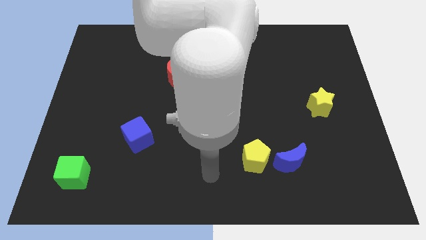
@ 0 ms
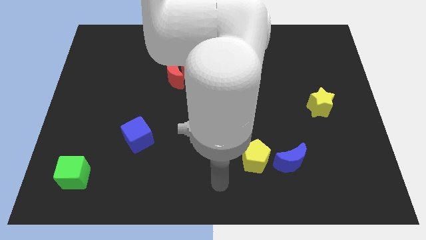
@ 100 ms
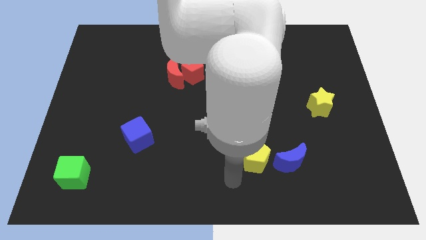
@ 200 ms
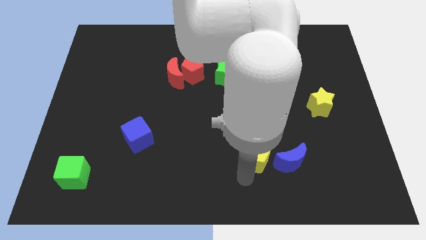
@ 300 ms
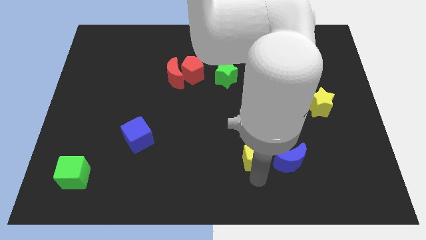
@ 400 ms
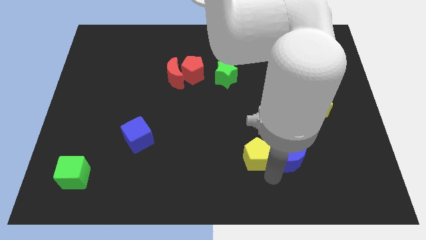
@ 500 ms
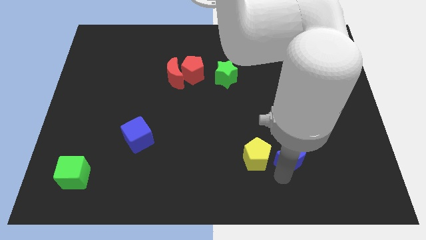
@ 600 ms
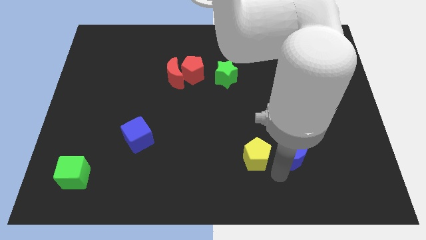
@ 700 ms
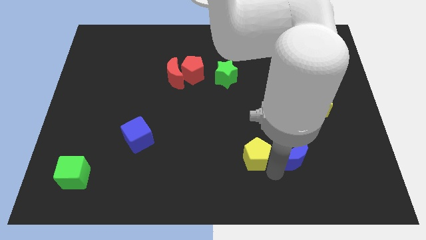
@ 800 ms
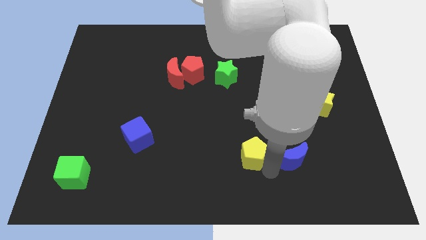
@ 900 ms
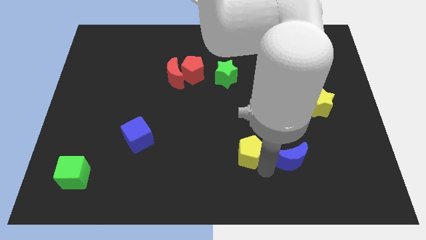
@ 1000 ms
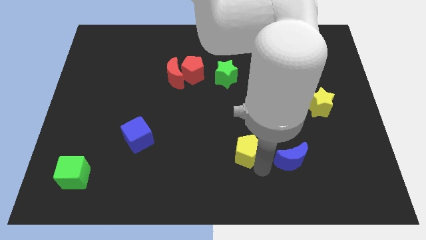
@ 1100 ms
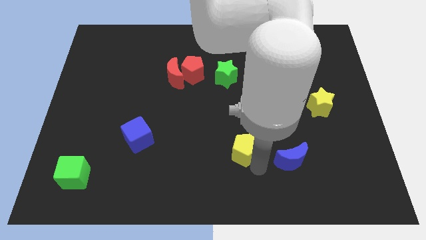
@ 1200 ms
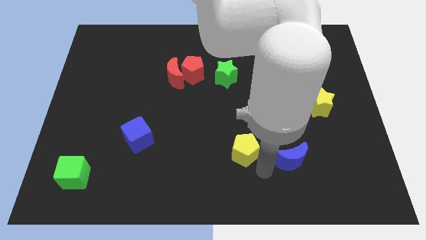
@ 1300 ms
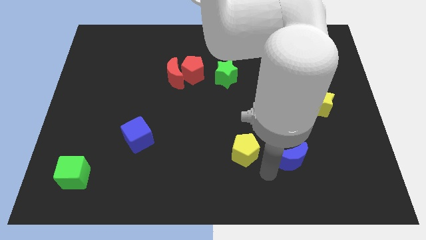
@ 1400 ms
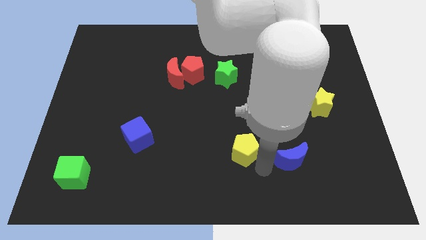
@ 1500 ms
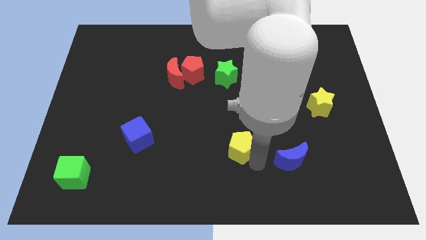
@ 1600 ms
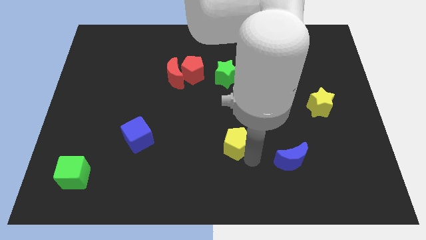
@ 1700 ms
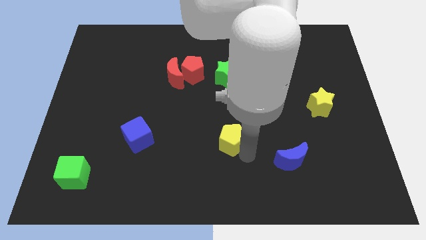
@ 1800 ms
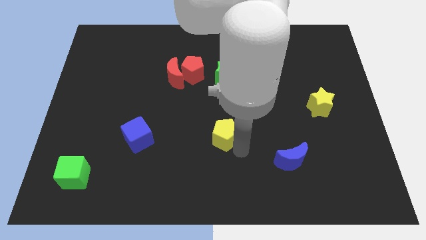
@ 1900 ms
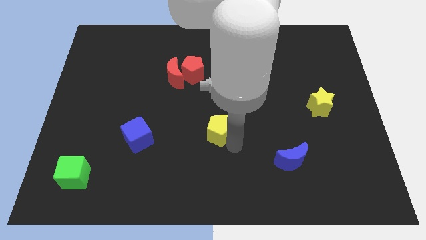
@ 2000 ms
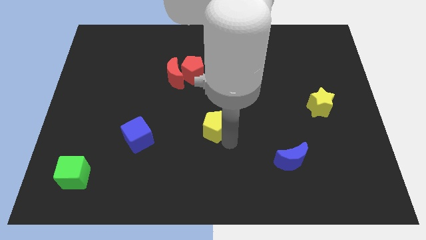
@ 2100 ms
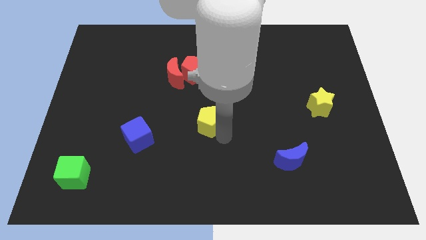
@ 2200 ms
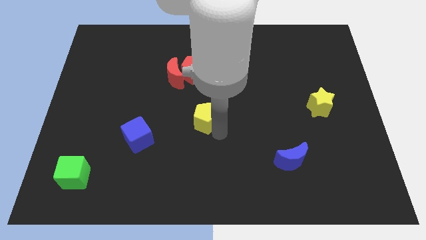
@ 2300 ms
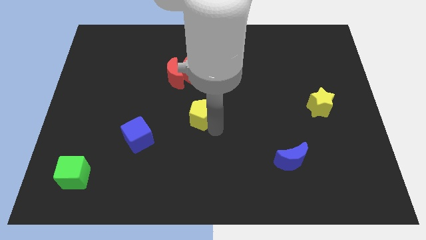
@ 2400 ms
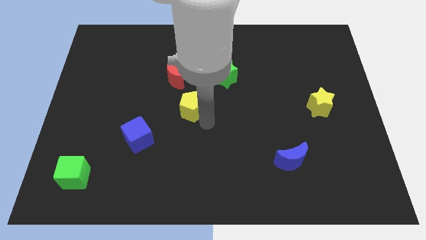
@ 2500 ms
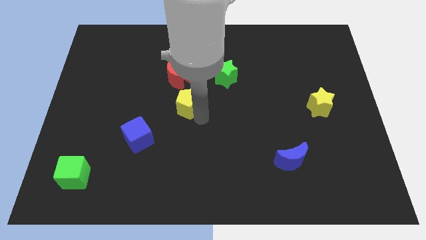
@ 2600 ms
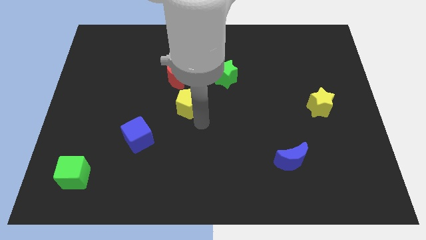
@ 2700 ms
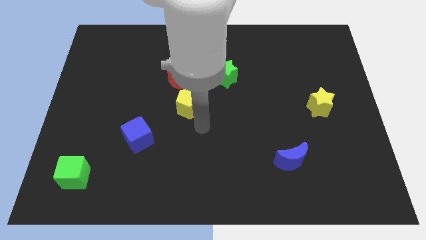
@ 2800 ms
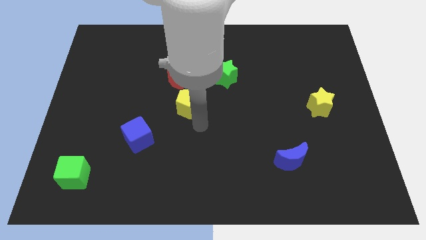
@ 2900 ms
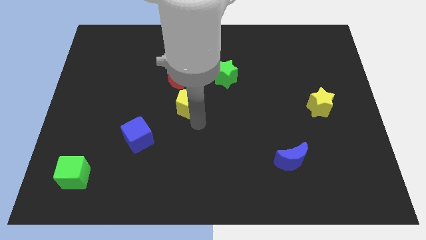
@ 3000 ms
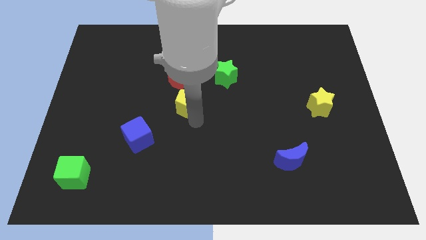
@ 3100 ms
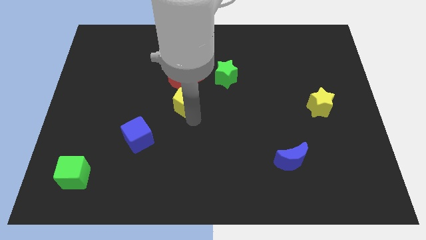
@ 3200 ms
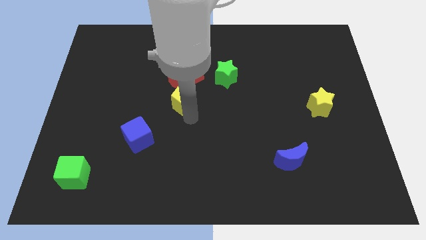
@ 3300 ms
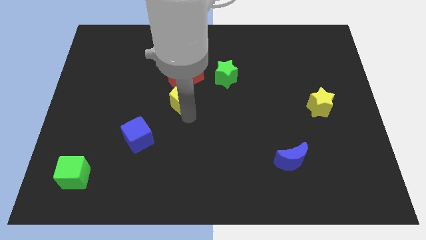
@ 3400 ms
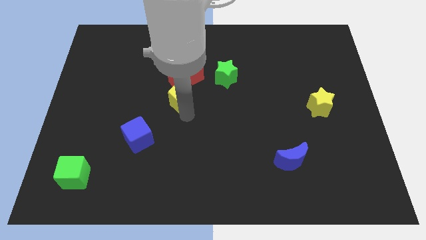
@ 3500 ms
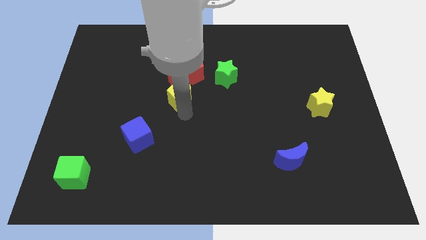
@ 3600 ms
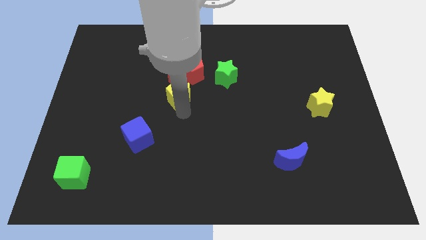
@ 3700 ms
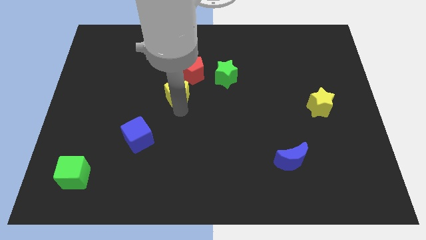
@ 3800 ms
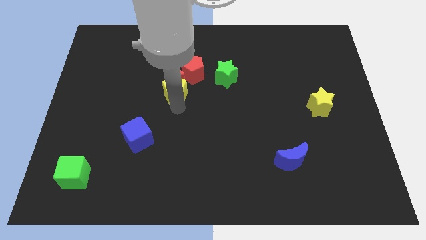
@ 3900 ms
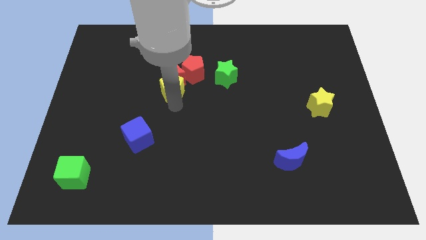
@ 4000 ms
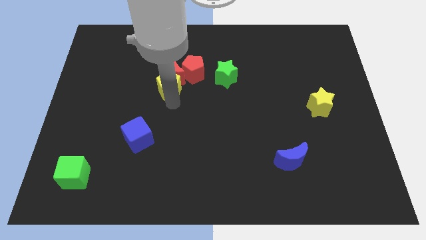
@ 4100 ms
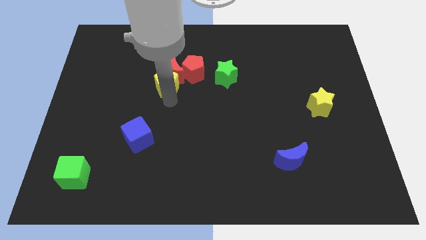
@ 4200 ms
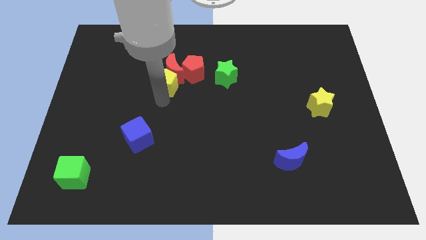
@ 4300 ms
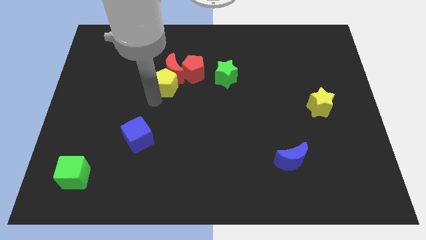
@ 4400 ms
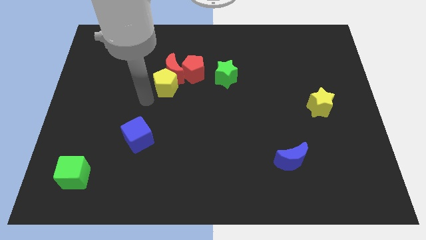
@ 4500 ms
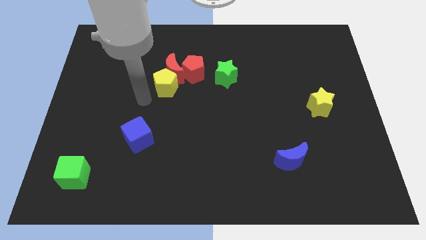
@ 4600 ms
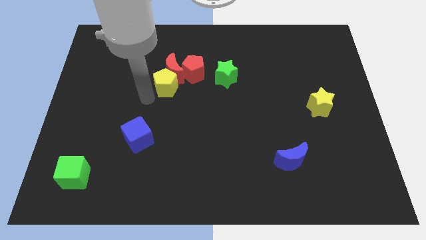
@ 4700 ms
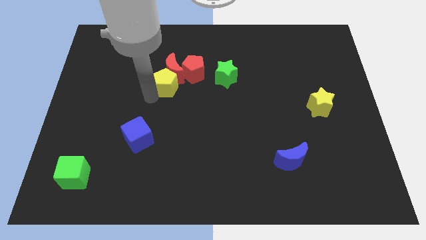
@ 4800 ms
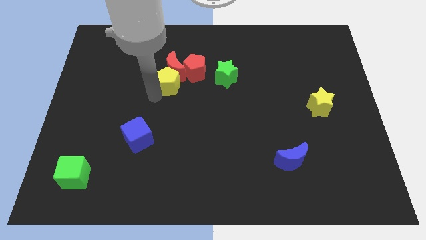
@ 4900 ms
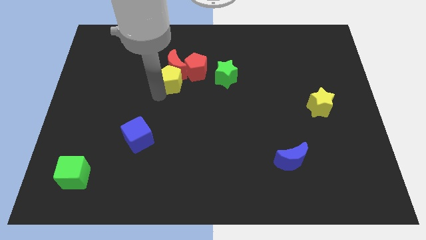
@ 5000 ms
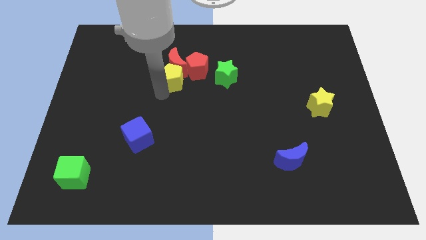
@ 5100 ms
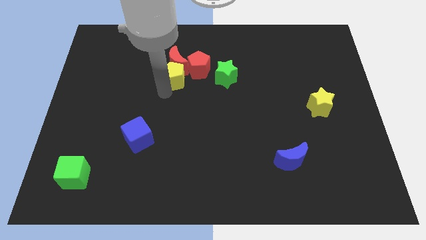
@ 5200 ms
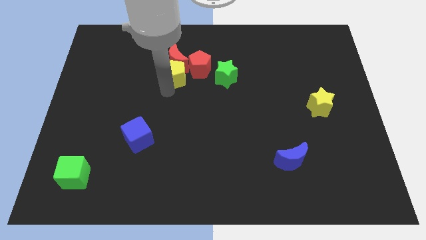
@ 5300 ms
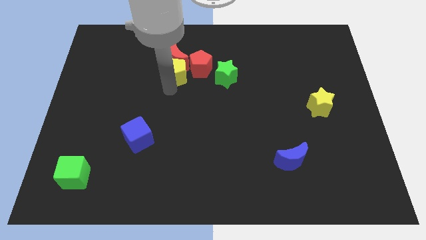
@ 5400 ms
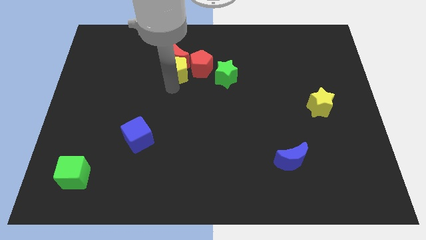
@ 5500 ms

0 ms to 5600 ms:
put the yellow pentagon towards the red pentagon

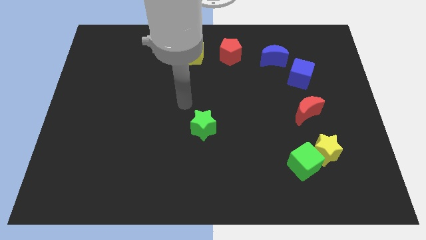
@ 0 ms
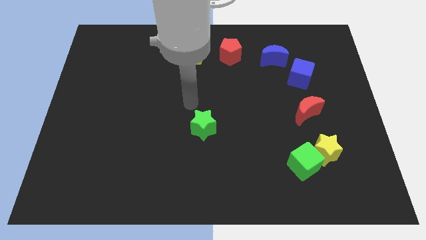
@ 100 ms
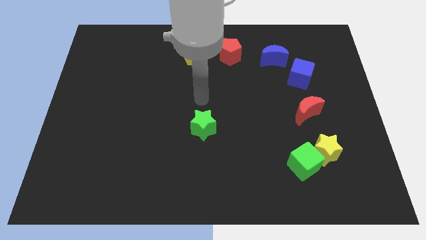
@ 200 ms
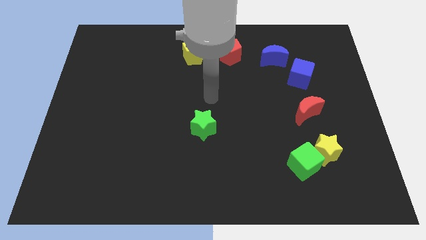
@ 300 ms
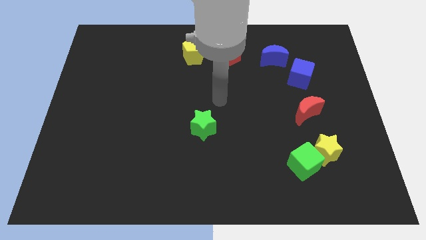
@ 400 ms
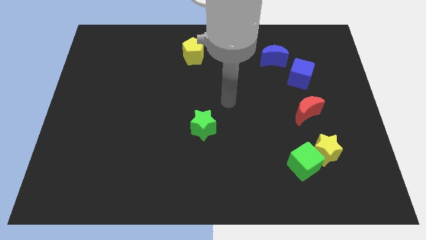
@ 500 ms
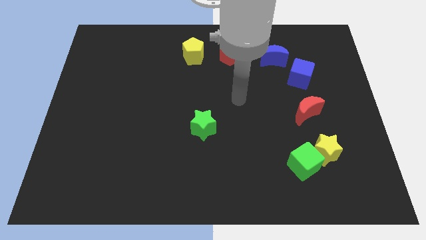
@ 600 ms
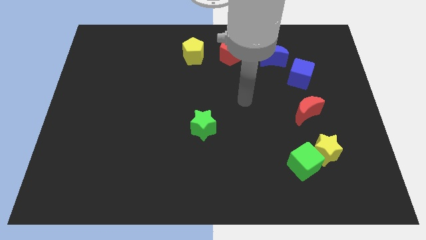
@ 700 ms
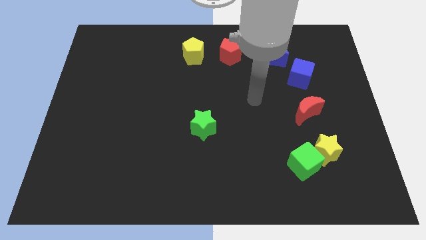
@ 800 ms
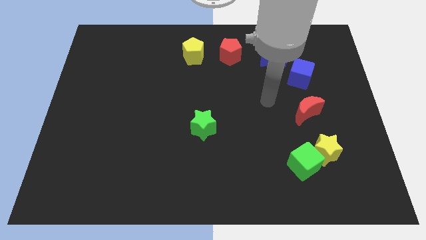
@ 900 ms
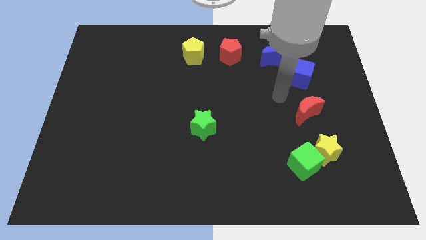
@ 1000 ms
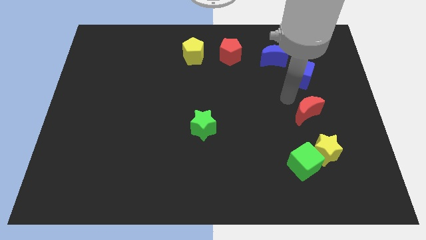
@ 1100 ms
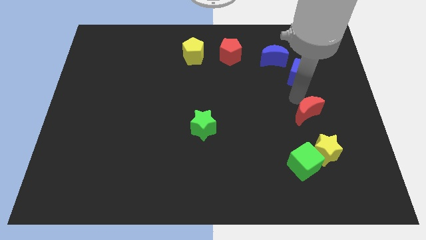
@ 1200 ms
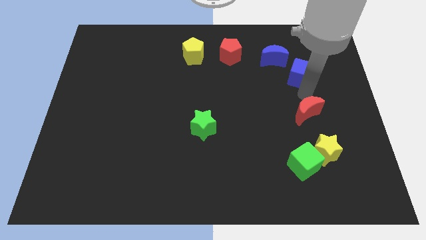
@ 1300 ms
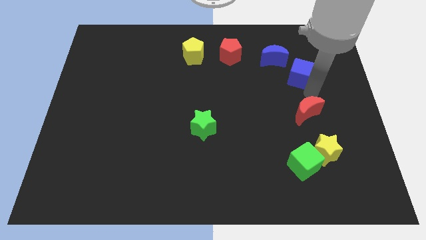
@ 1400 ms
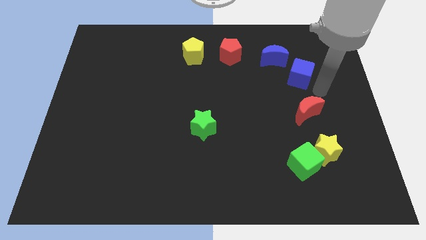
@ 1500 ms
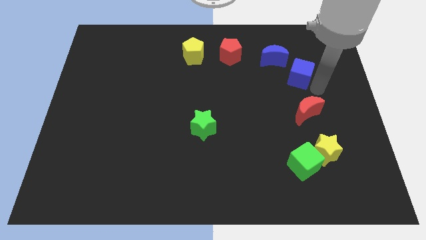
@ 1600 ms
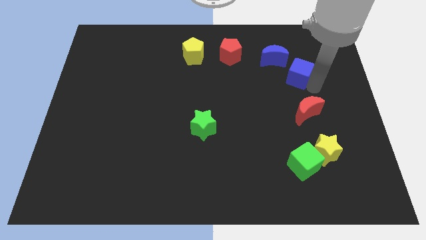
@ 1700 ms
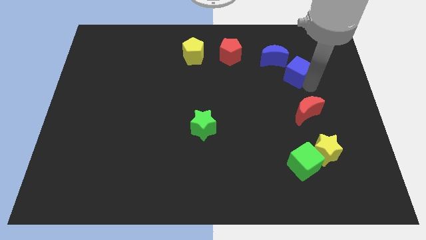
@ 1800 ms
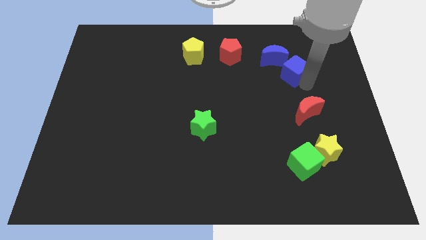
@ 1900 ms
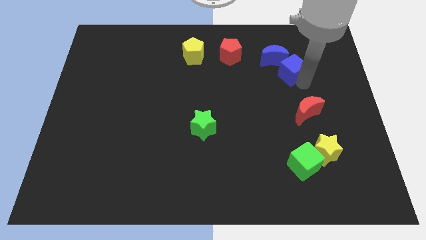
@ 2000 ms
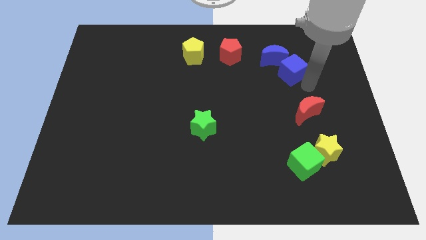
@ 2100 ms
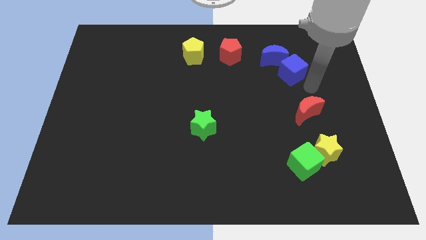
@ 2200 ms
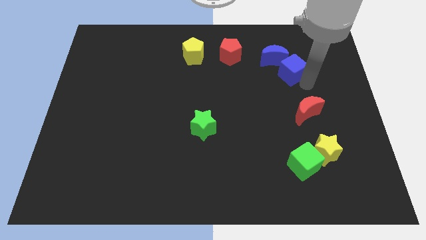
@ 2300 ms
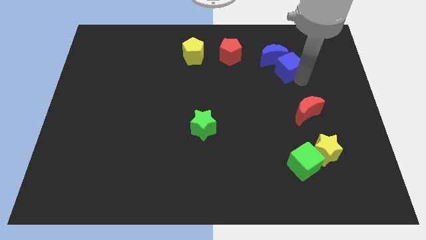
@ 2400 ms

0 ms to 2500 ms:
push the blue cube close to the blue moon
